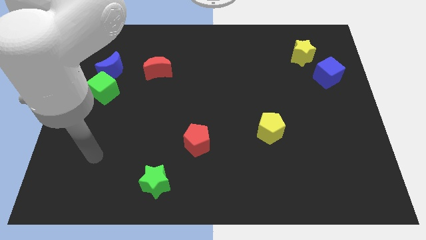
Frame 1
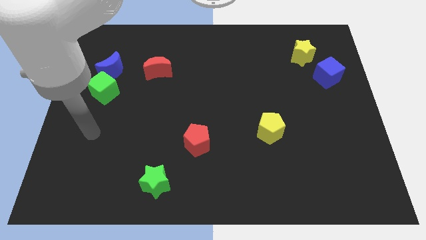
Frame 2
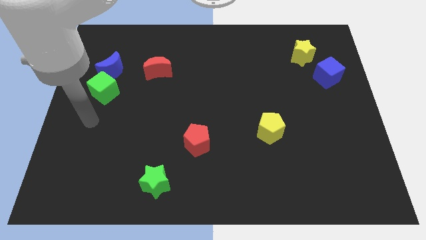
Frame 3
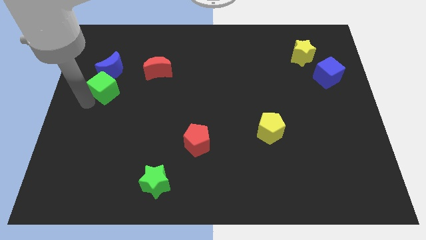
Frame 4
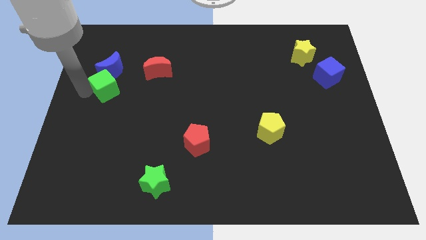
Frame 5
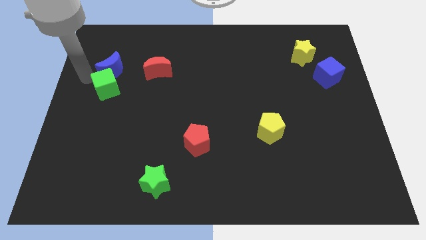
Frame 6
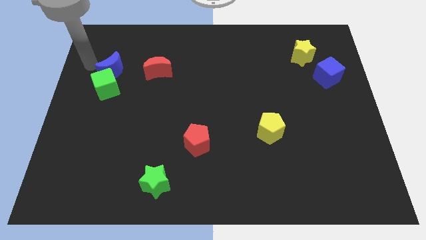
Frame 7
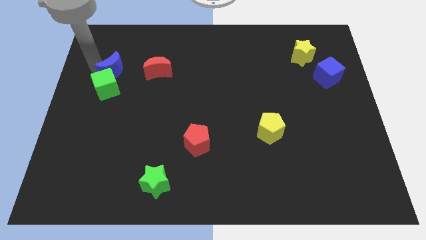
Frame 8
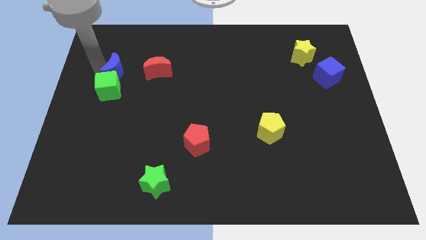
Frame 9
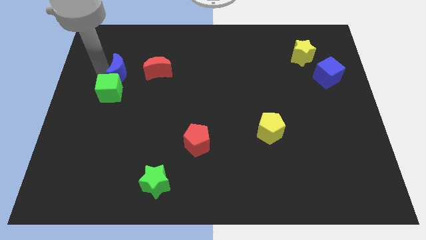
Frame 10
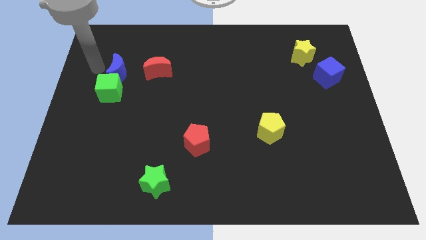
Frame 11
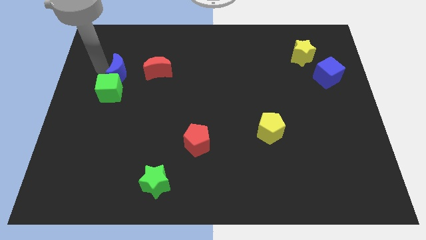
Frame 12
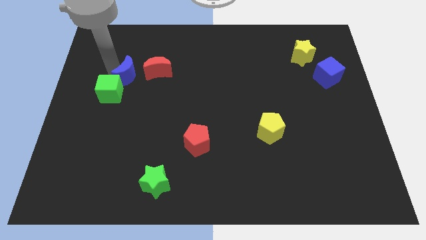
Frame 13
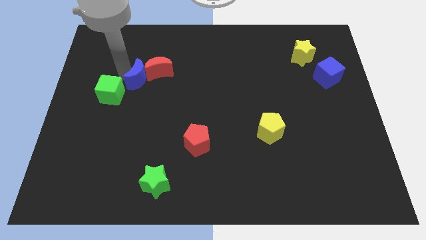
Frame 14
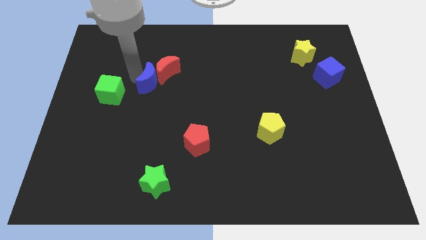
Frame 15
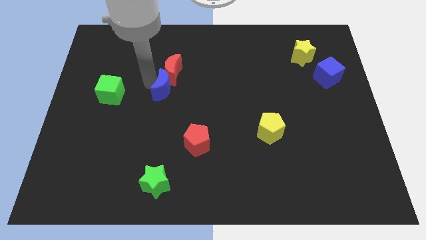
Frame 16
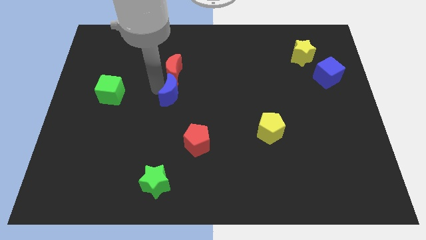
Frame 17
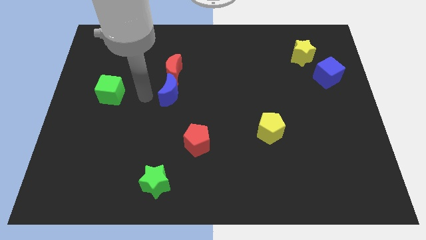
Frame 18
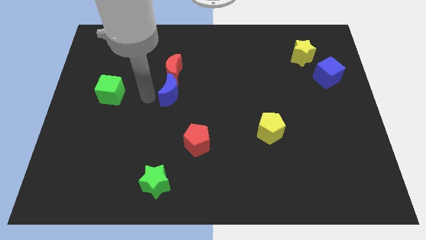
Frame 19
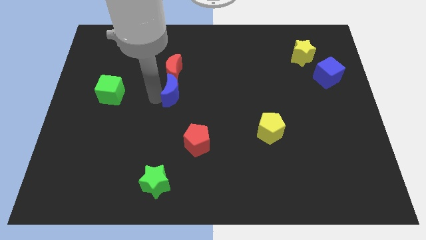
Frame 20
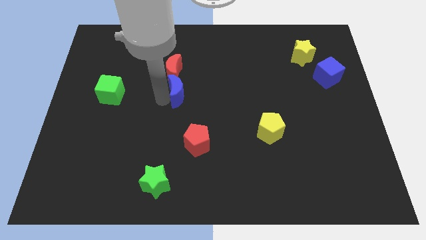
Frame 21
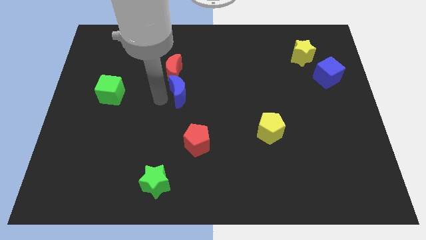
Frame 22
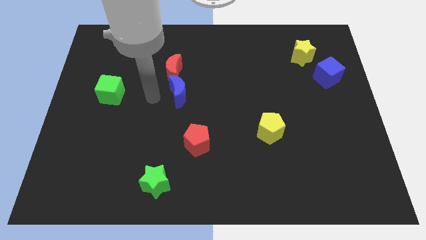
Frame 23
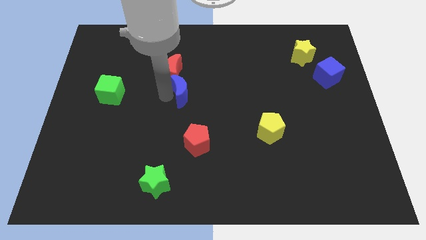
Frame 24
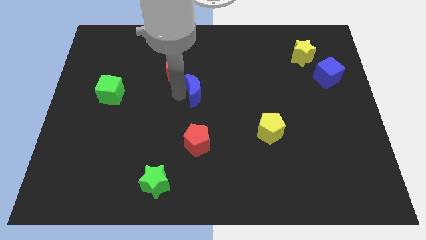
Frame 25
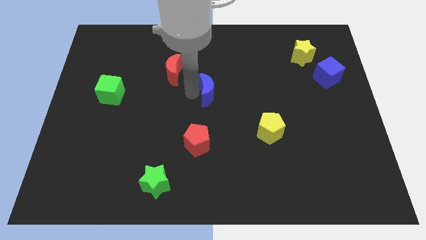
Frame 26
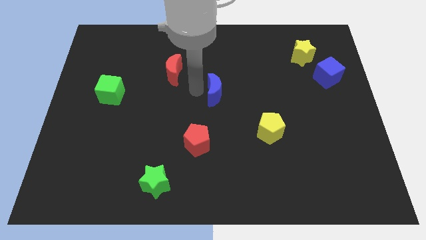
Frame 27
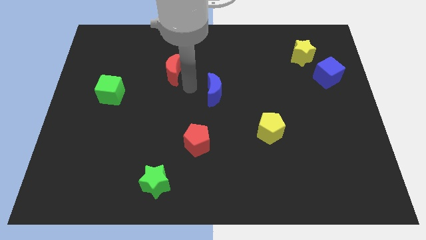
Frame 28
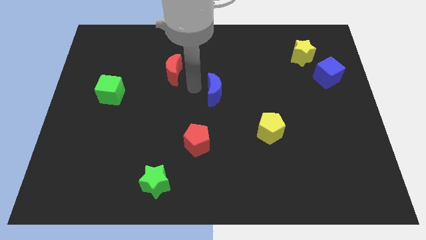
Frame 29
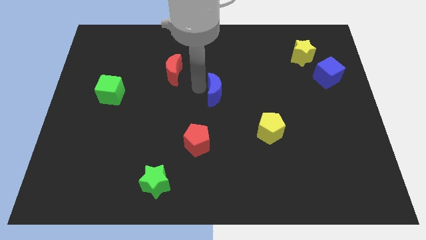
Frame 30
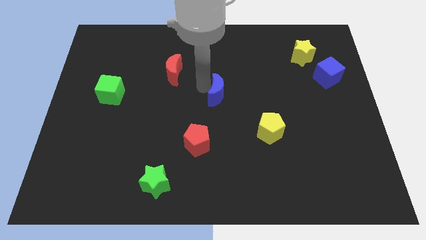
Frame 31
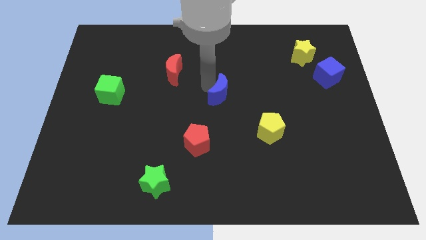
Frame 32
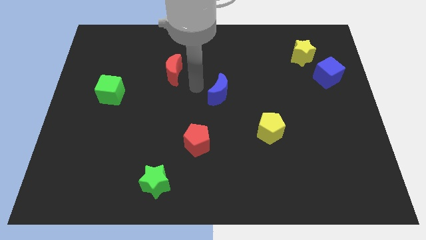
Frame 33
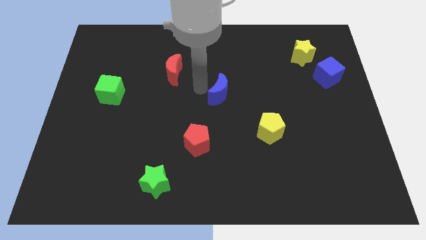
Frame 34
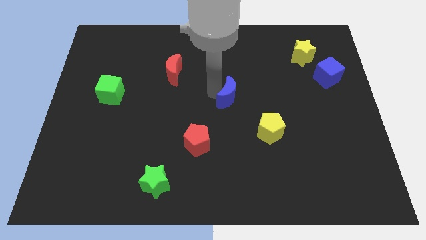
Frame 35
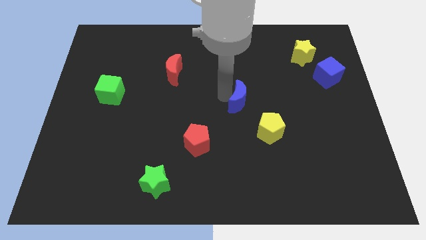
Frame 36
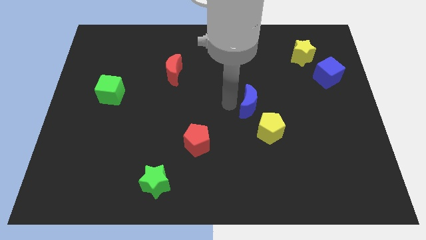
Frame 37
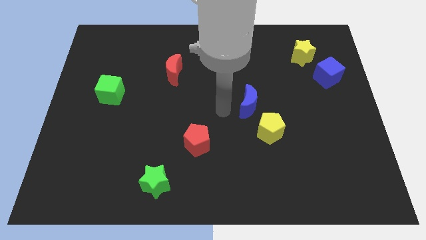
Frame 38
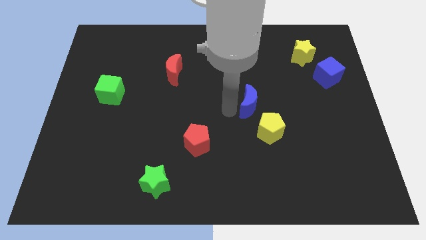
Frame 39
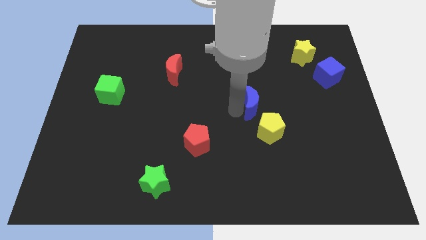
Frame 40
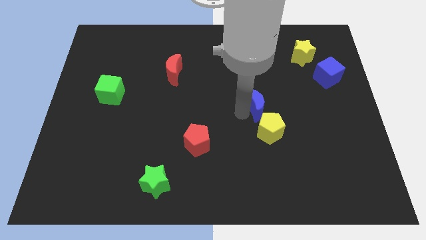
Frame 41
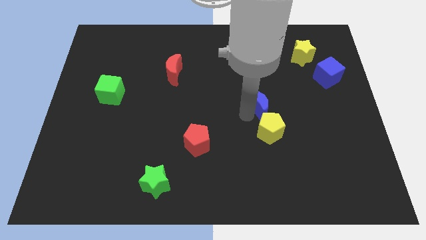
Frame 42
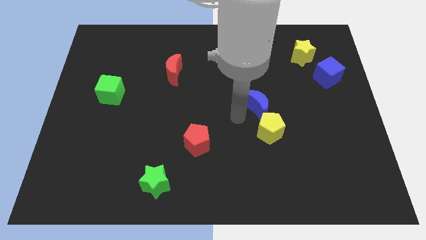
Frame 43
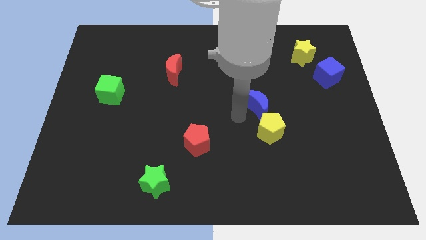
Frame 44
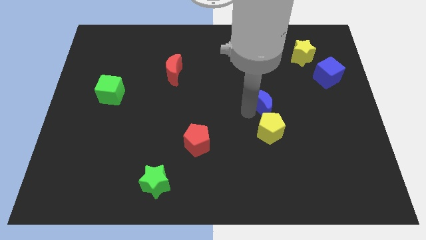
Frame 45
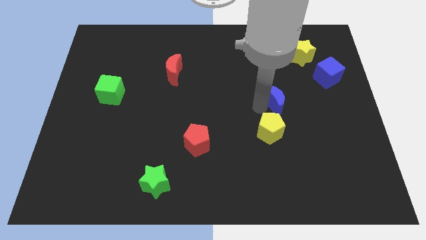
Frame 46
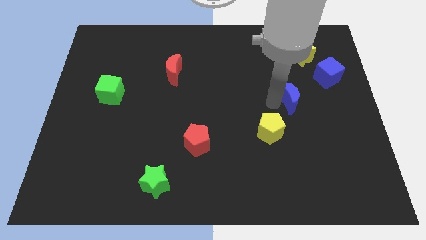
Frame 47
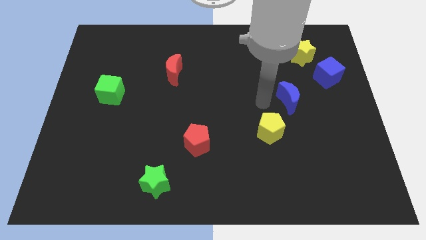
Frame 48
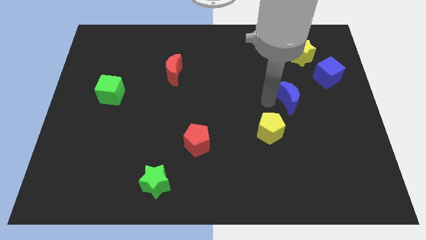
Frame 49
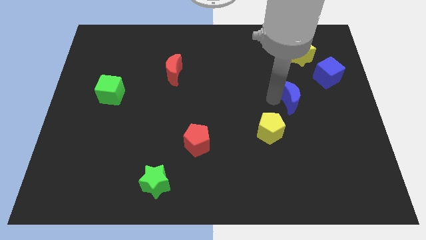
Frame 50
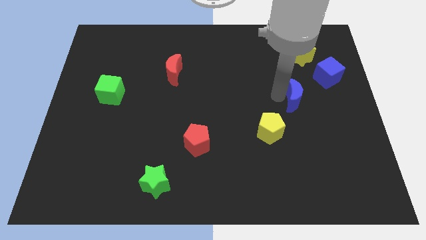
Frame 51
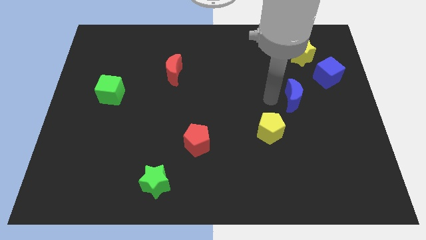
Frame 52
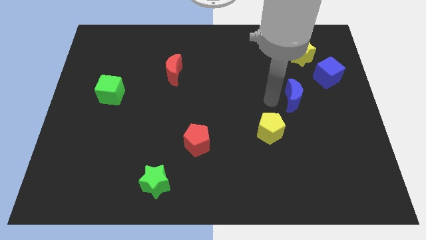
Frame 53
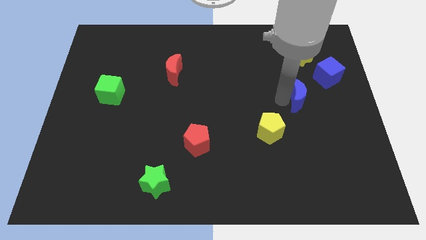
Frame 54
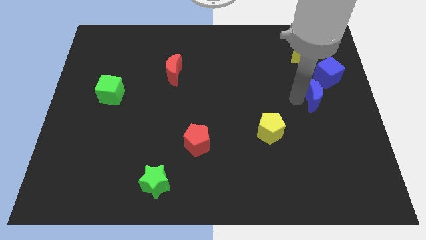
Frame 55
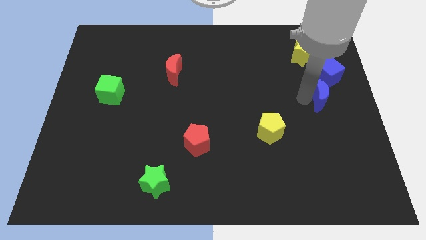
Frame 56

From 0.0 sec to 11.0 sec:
slide the blue moon to the right side of the board

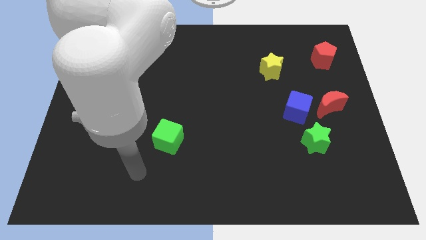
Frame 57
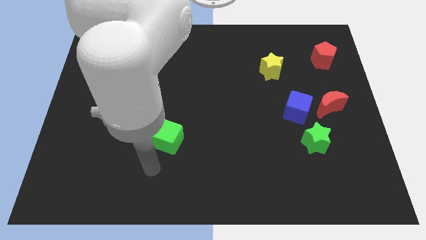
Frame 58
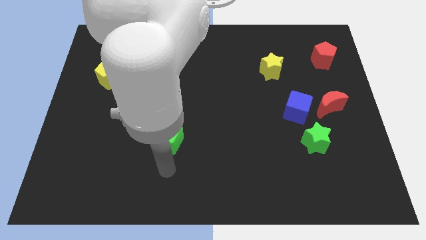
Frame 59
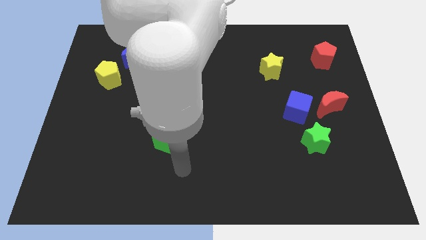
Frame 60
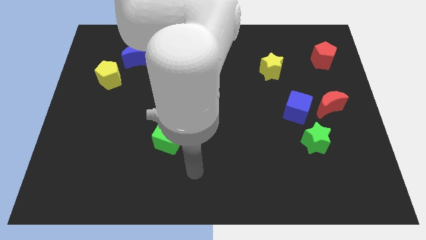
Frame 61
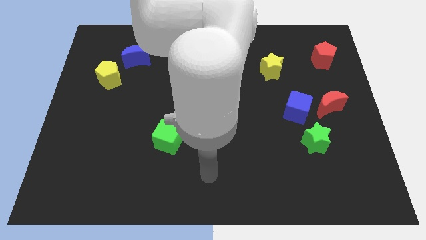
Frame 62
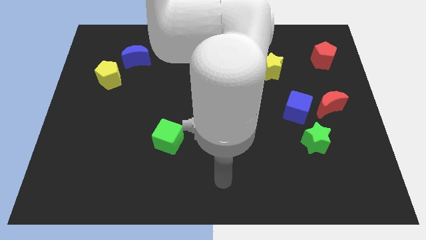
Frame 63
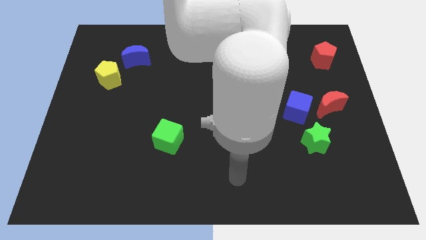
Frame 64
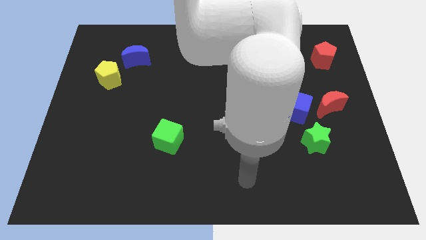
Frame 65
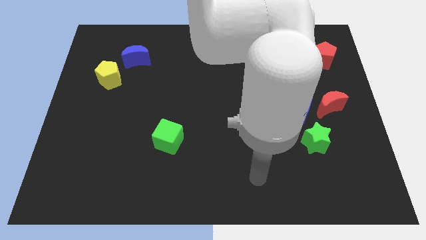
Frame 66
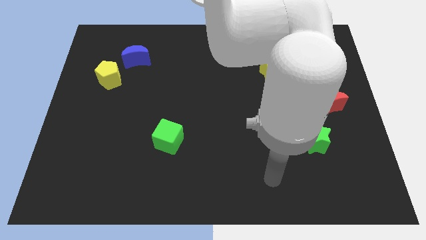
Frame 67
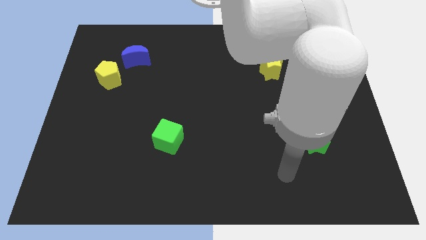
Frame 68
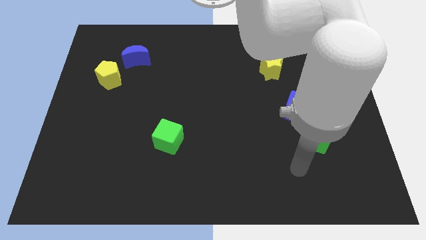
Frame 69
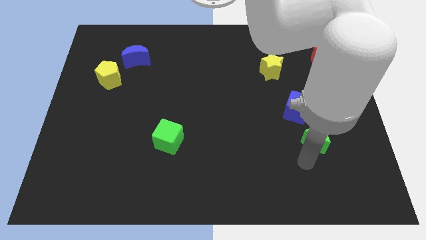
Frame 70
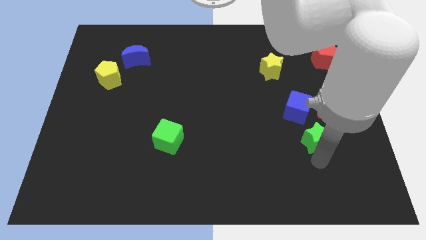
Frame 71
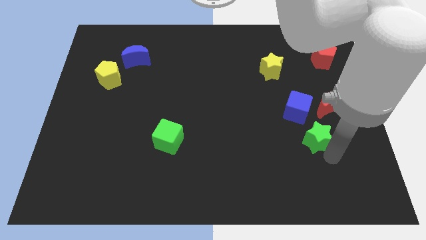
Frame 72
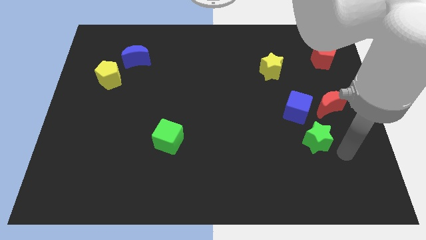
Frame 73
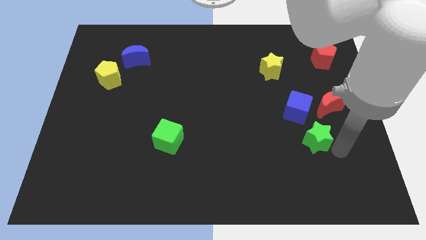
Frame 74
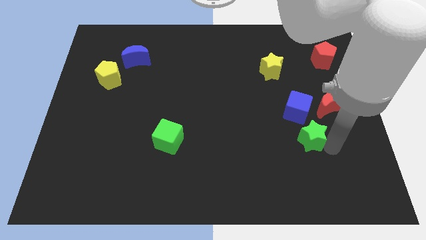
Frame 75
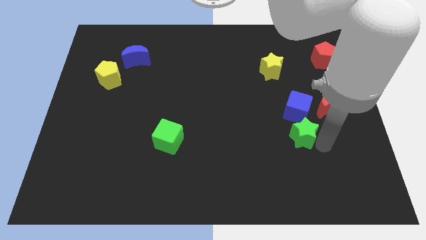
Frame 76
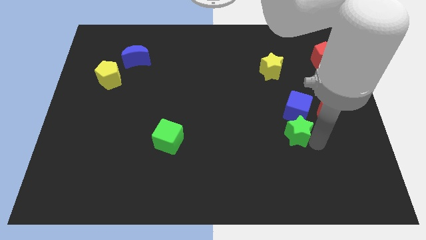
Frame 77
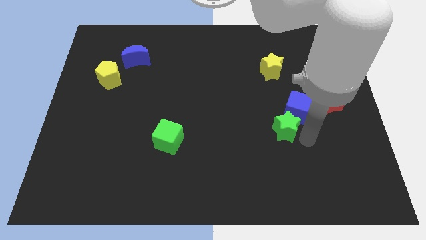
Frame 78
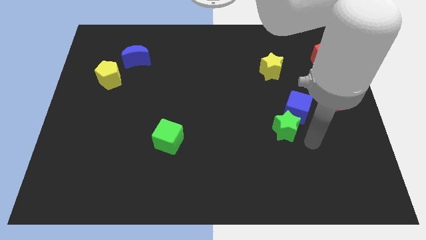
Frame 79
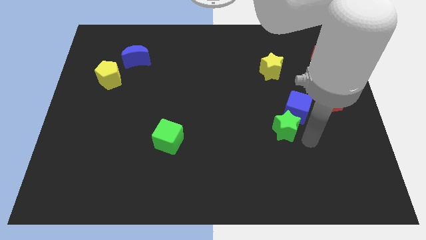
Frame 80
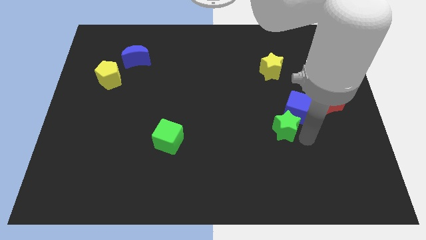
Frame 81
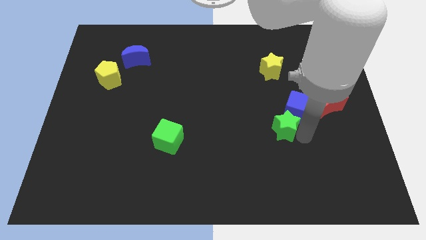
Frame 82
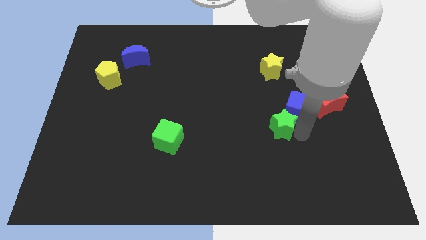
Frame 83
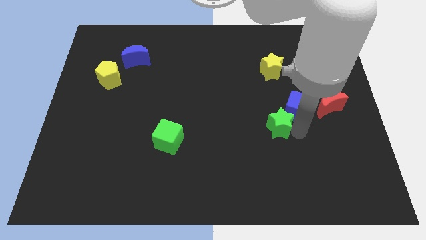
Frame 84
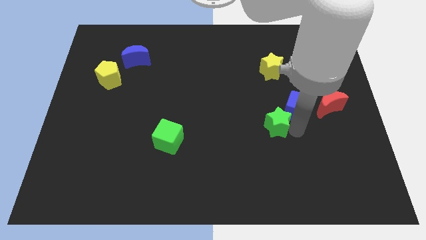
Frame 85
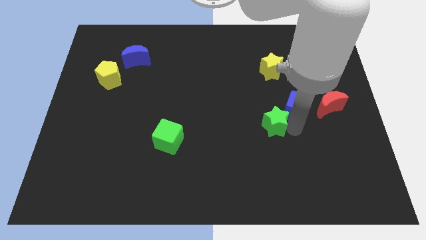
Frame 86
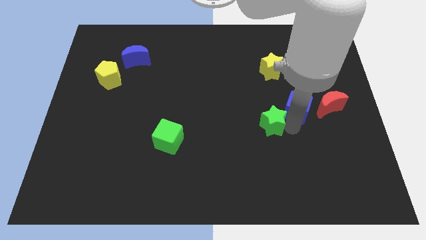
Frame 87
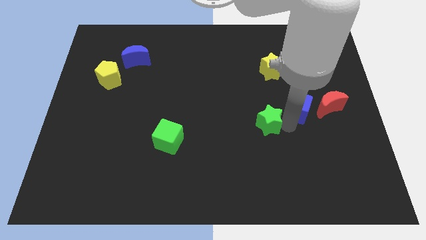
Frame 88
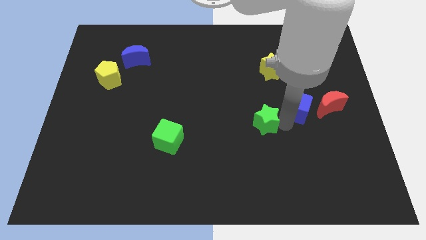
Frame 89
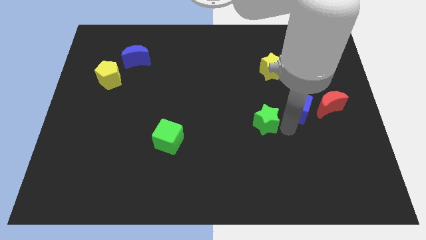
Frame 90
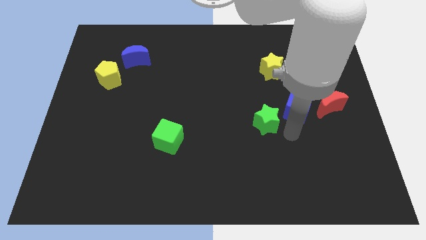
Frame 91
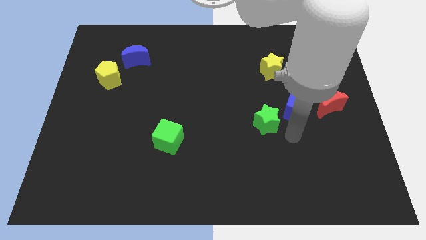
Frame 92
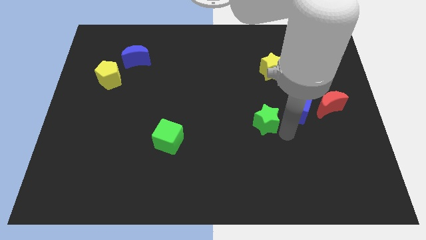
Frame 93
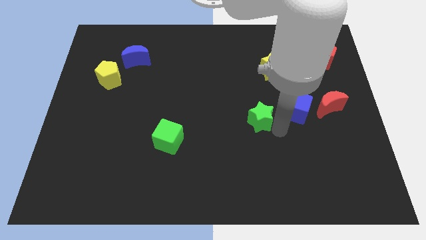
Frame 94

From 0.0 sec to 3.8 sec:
put the green star to the middle
